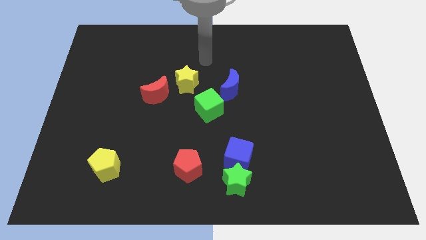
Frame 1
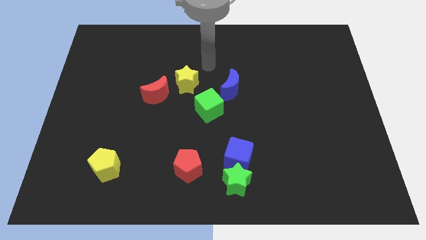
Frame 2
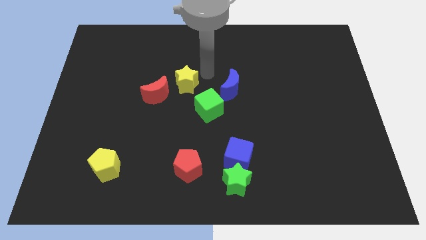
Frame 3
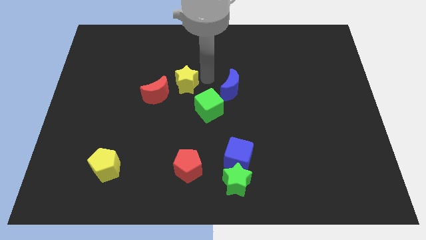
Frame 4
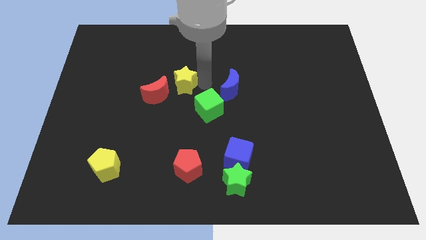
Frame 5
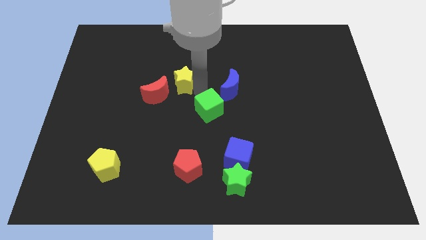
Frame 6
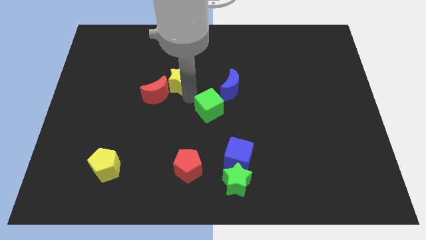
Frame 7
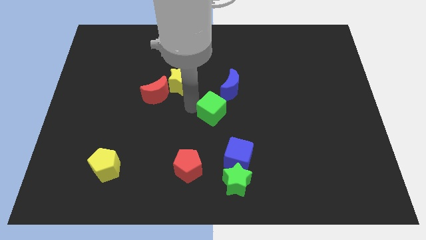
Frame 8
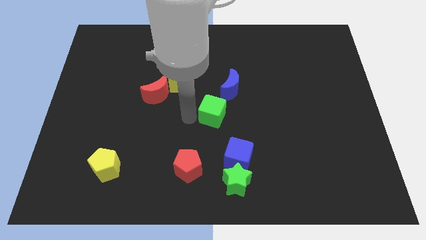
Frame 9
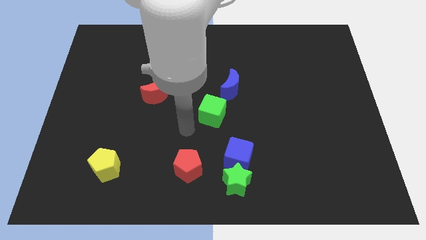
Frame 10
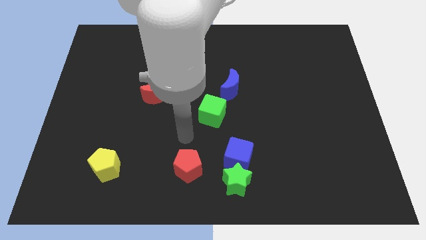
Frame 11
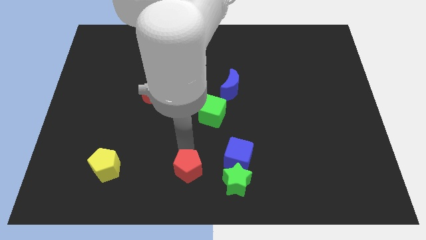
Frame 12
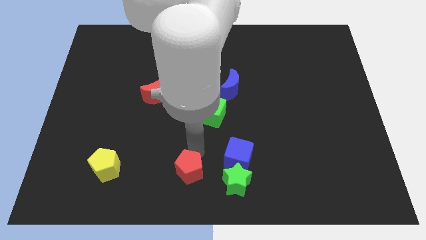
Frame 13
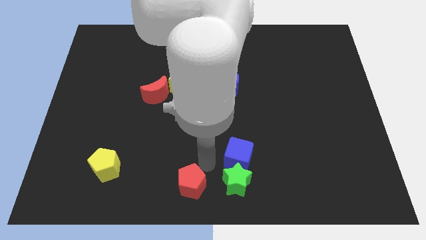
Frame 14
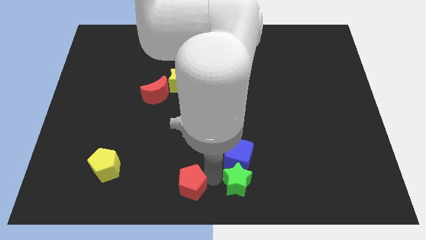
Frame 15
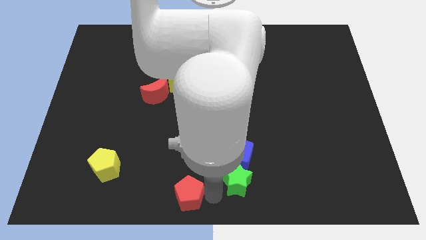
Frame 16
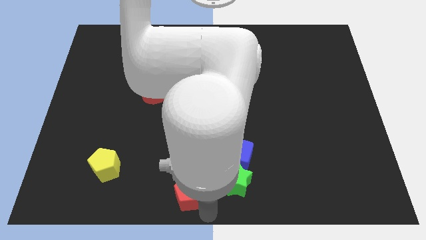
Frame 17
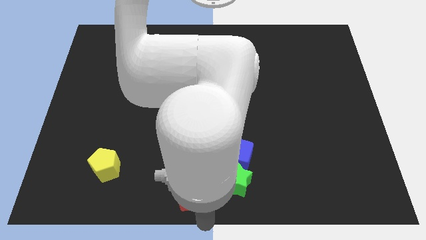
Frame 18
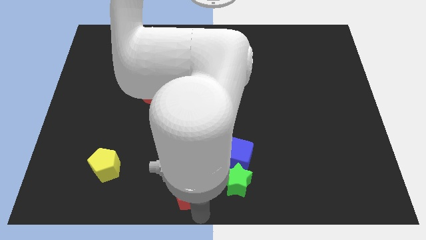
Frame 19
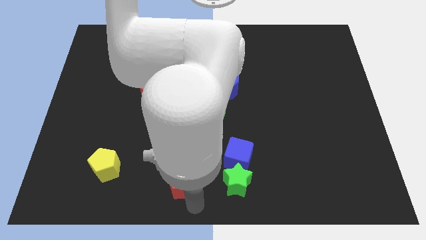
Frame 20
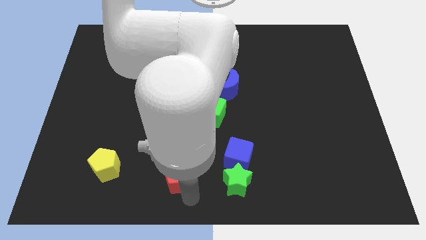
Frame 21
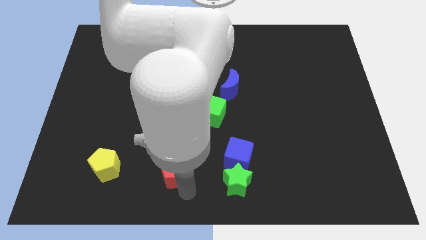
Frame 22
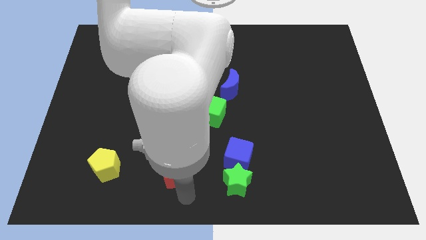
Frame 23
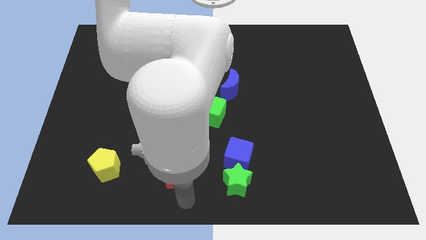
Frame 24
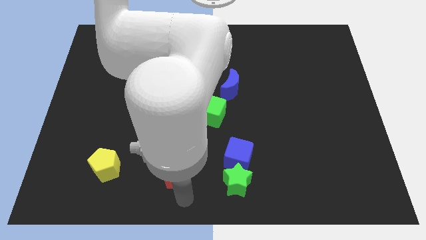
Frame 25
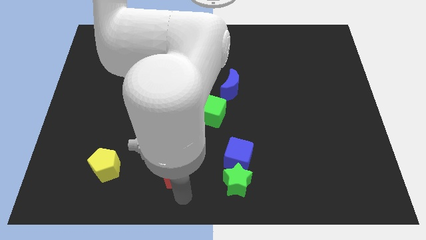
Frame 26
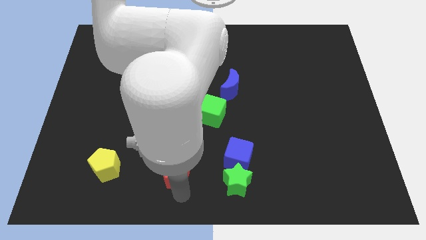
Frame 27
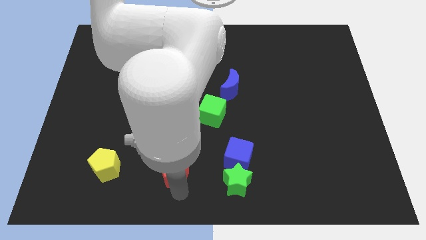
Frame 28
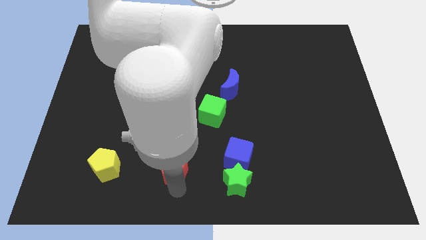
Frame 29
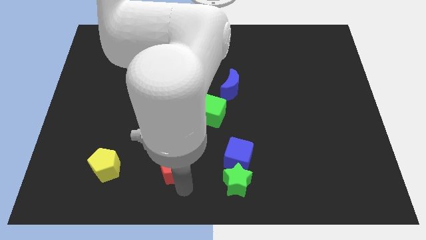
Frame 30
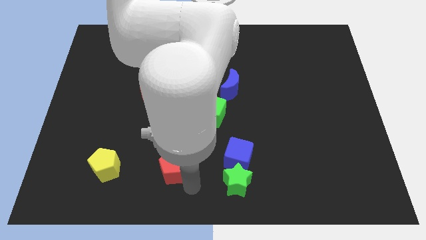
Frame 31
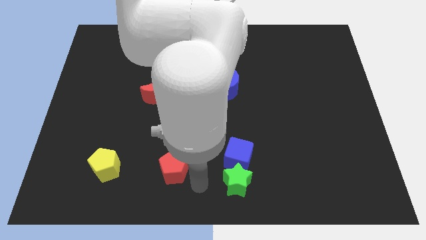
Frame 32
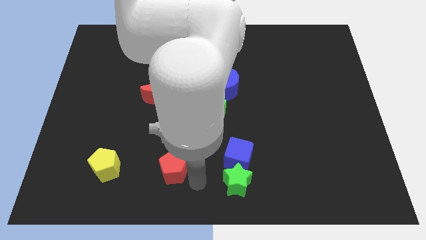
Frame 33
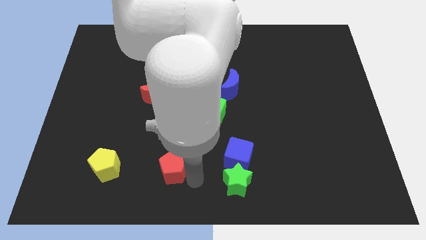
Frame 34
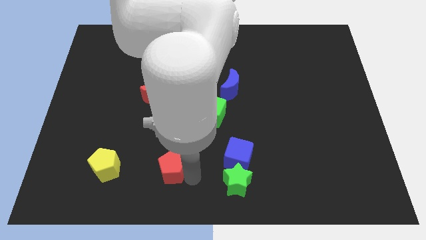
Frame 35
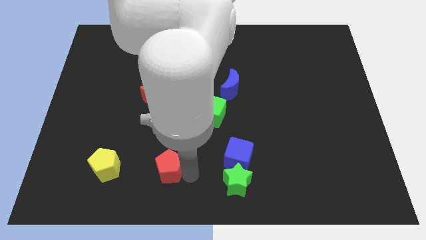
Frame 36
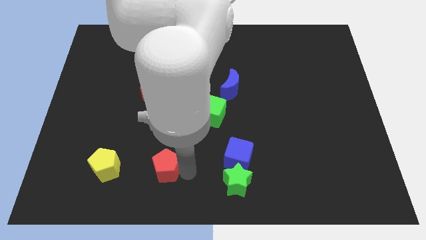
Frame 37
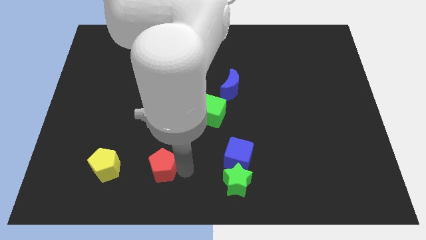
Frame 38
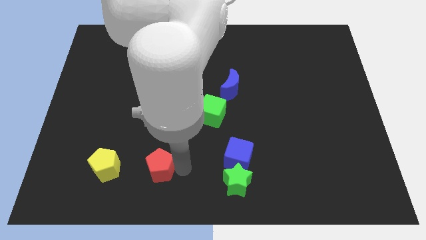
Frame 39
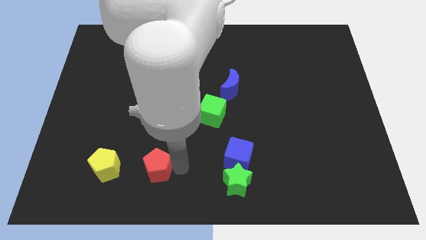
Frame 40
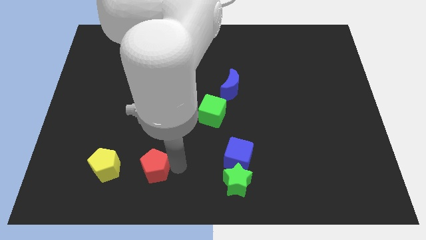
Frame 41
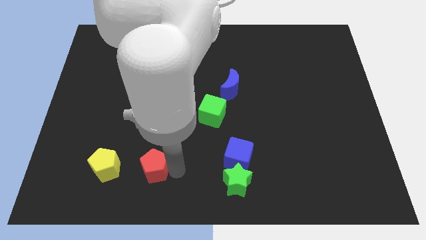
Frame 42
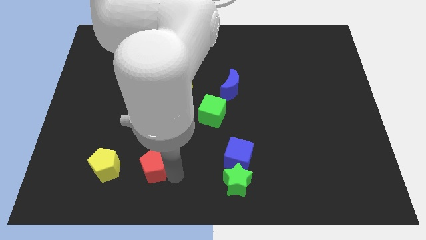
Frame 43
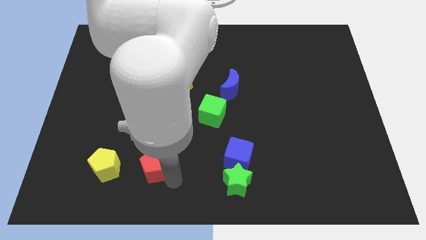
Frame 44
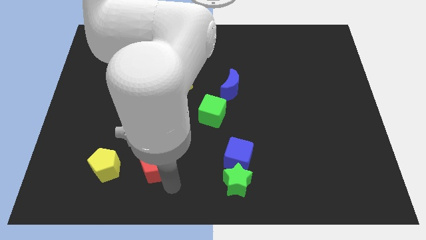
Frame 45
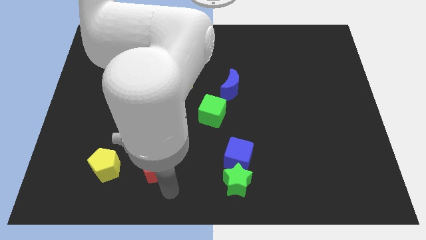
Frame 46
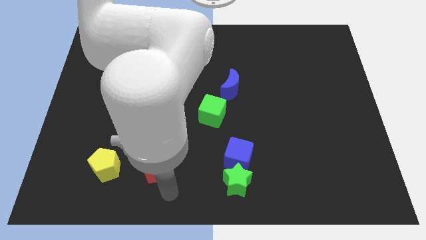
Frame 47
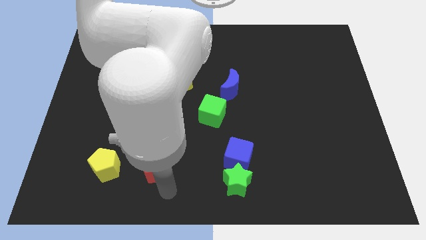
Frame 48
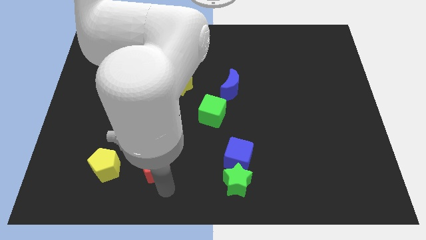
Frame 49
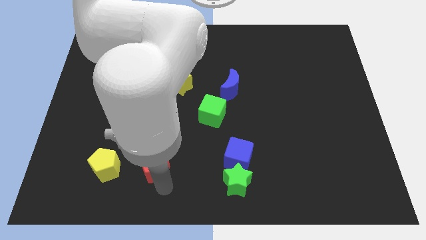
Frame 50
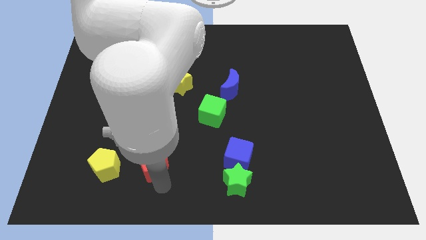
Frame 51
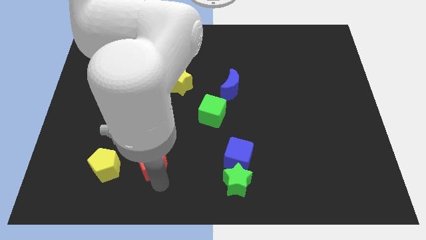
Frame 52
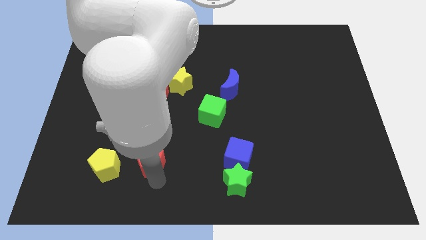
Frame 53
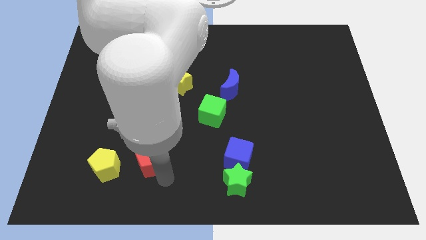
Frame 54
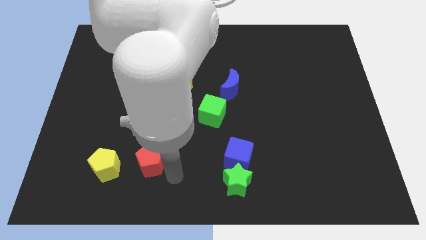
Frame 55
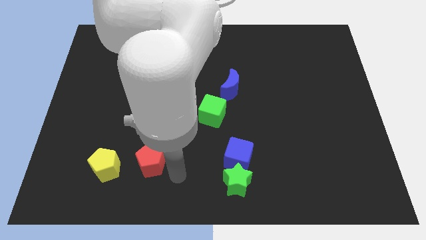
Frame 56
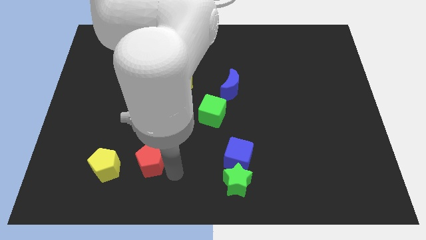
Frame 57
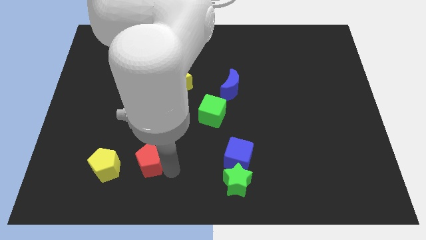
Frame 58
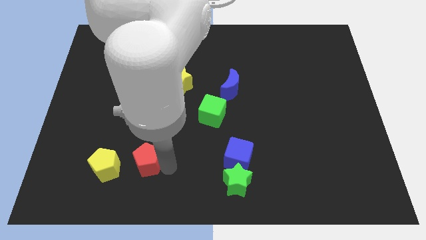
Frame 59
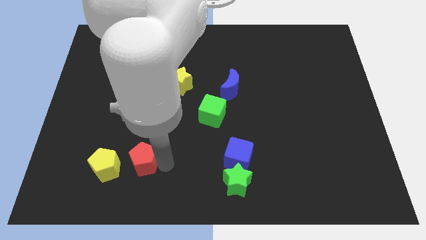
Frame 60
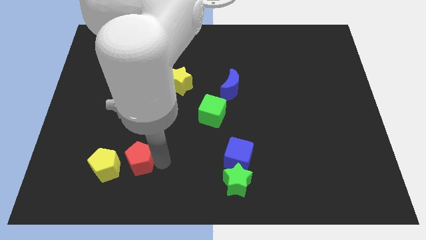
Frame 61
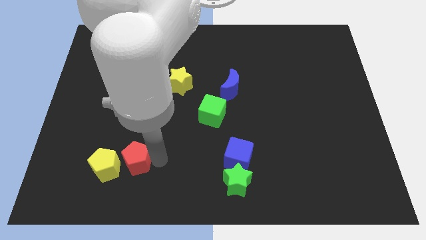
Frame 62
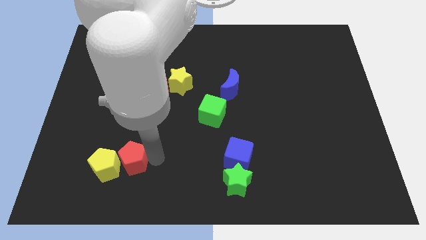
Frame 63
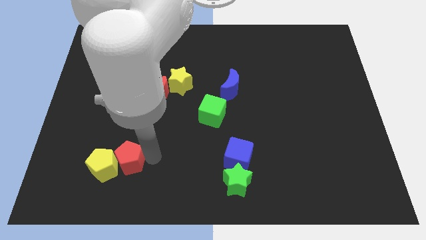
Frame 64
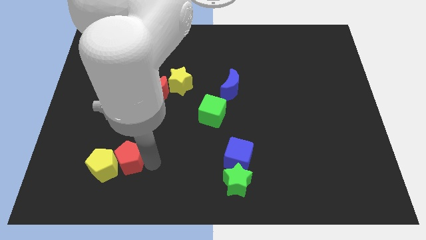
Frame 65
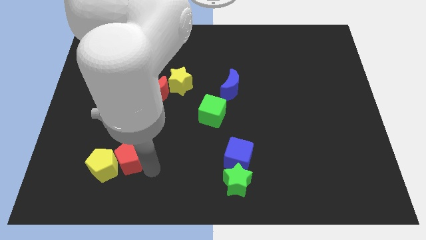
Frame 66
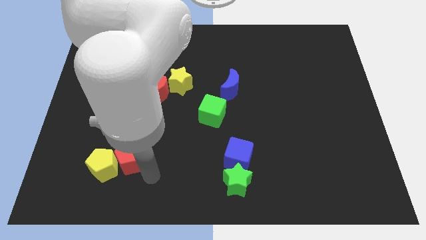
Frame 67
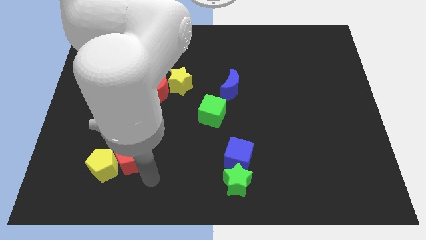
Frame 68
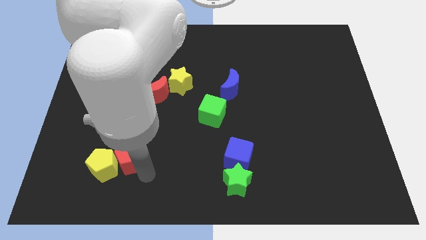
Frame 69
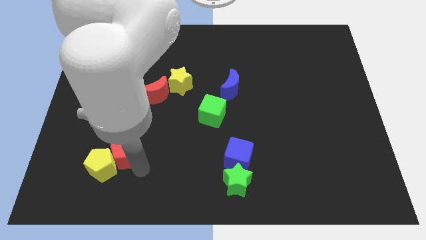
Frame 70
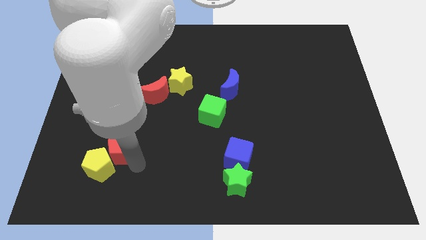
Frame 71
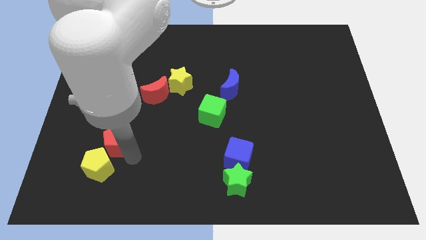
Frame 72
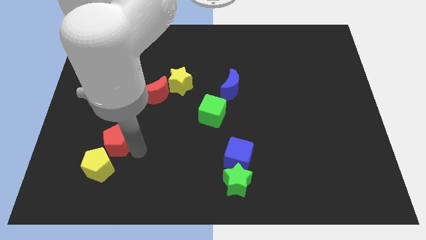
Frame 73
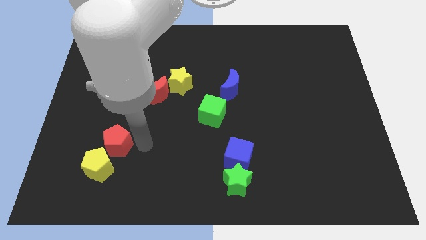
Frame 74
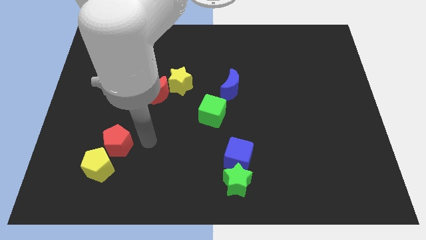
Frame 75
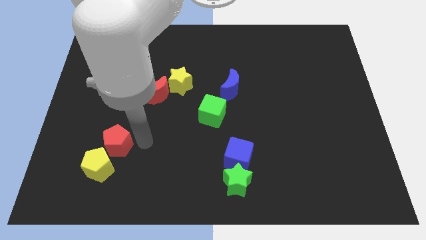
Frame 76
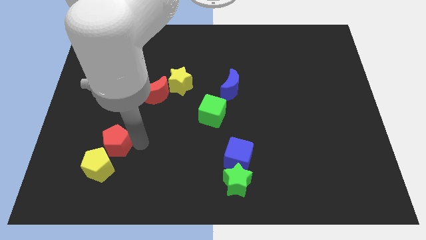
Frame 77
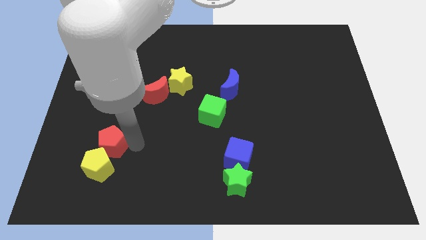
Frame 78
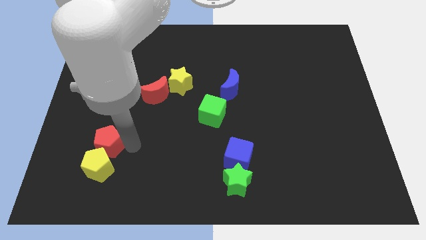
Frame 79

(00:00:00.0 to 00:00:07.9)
move the red pentagon to the top left side of the yellow pentagon
